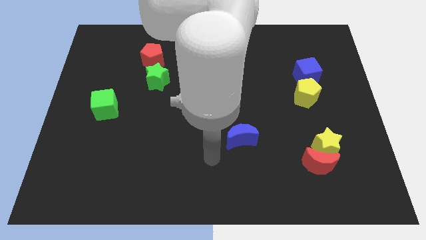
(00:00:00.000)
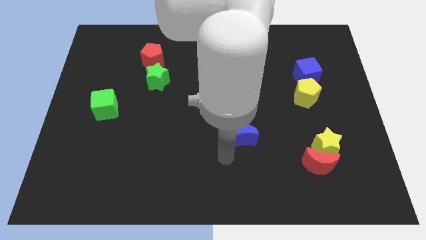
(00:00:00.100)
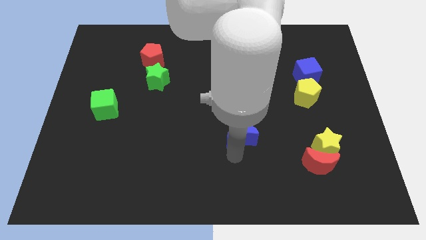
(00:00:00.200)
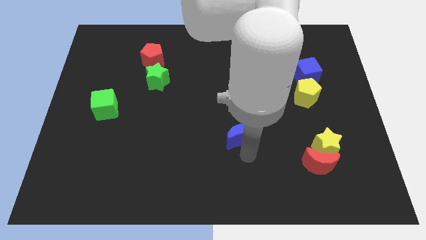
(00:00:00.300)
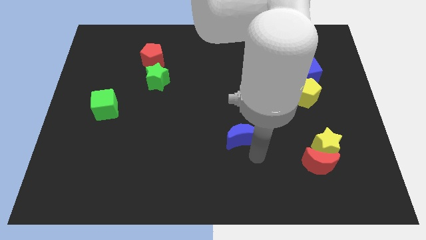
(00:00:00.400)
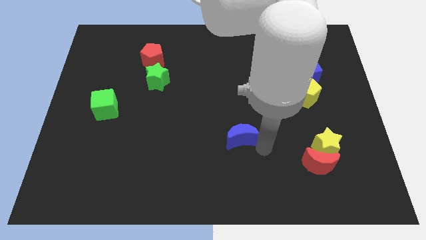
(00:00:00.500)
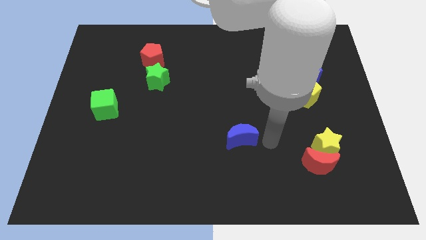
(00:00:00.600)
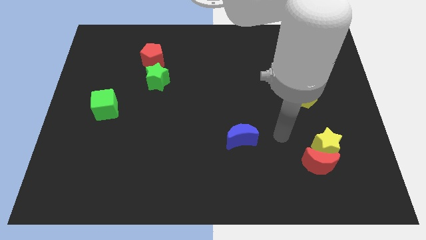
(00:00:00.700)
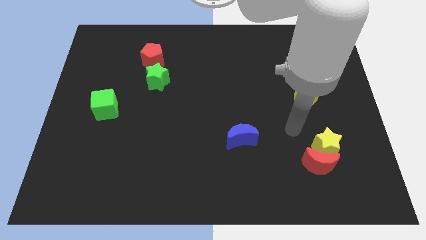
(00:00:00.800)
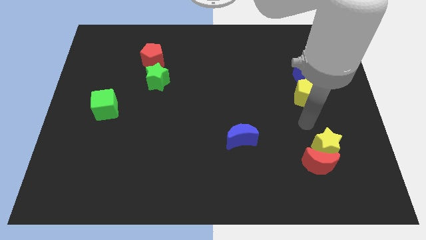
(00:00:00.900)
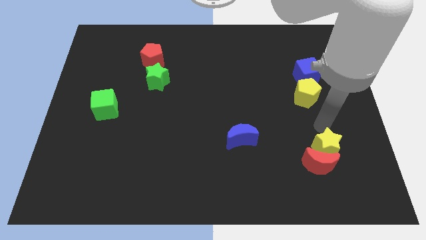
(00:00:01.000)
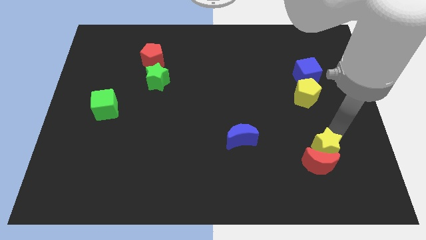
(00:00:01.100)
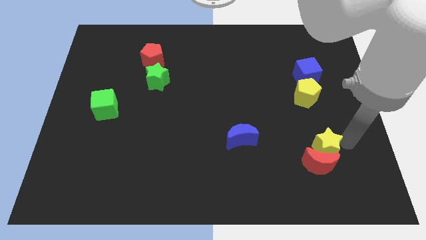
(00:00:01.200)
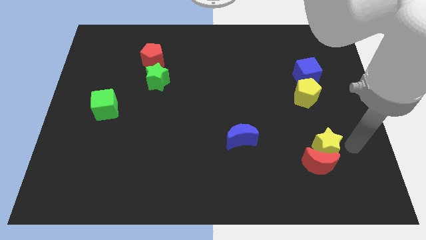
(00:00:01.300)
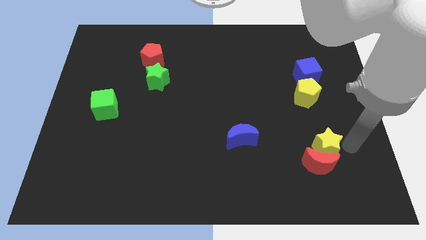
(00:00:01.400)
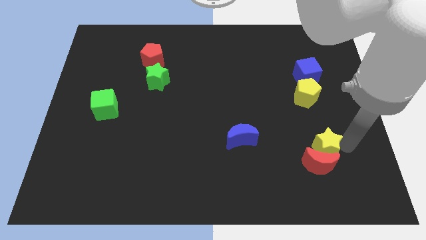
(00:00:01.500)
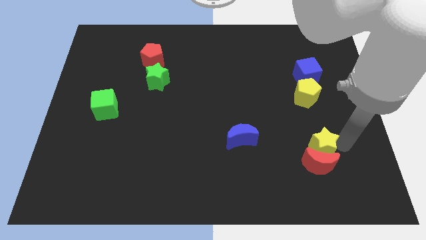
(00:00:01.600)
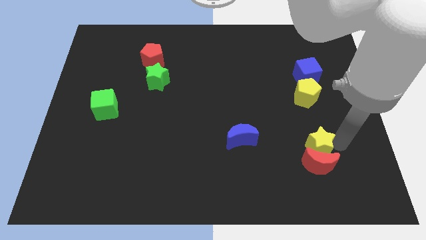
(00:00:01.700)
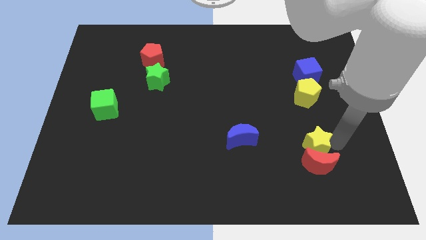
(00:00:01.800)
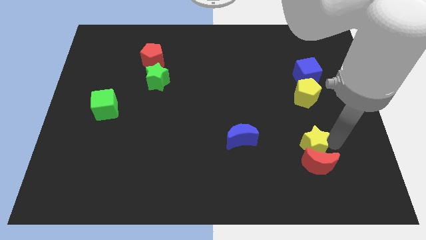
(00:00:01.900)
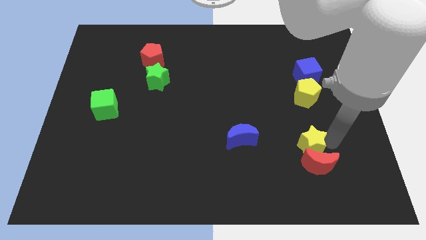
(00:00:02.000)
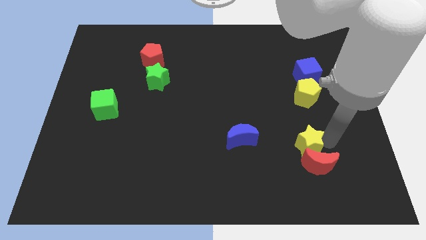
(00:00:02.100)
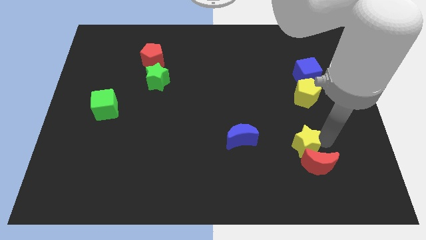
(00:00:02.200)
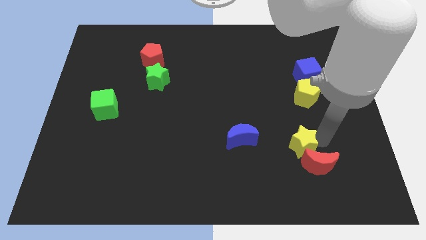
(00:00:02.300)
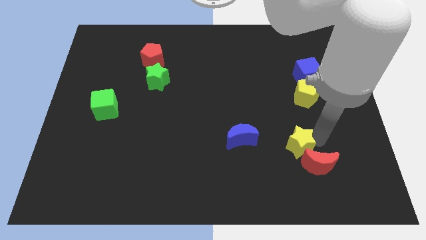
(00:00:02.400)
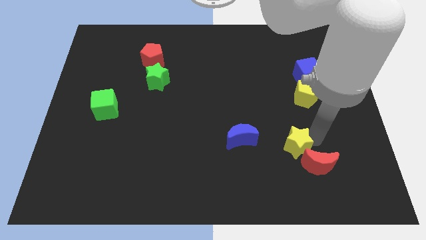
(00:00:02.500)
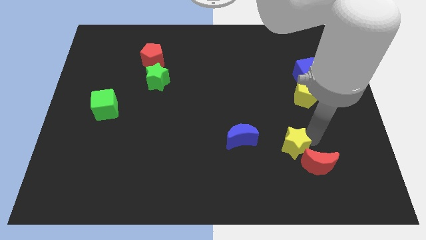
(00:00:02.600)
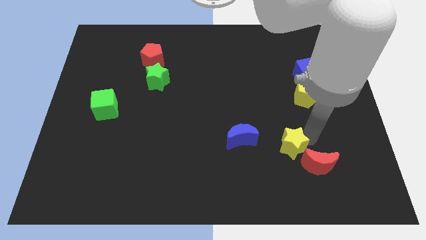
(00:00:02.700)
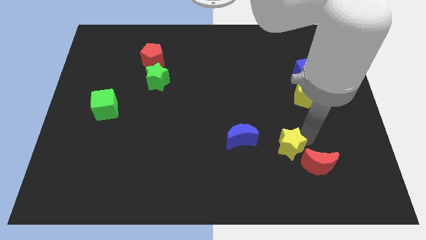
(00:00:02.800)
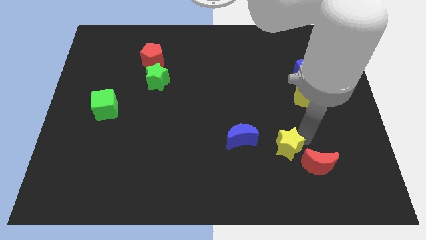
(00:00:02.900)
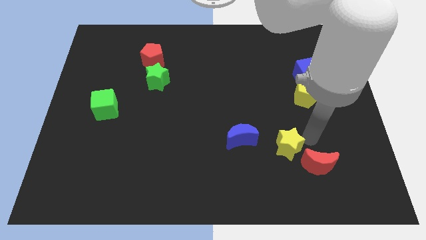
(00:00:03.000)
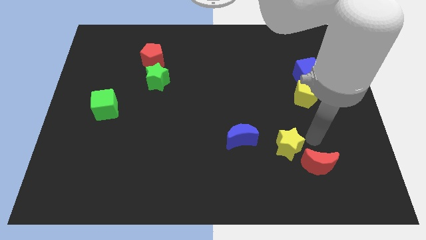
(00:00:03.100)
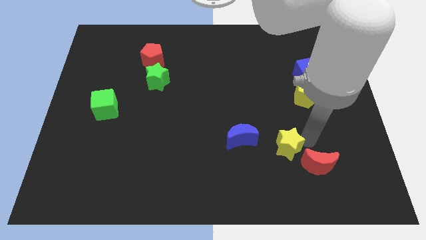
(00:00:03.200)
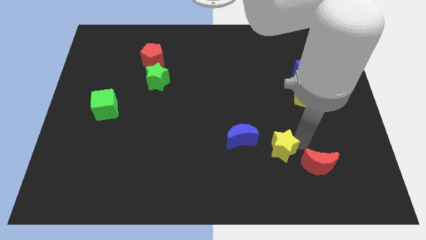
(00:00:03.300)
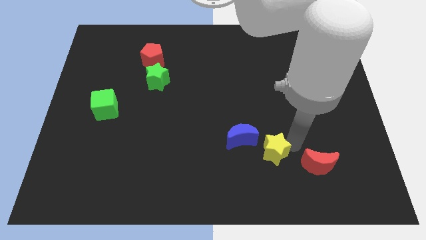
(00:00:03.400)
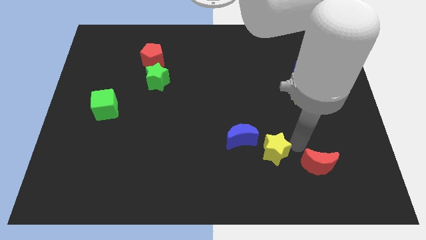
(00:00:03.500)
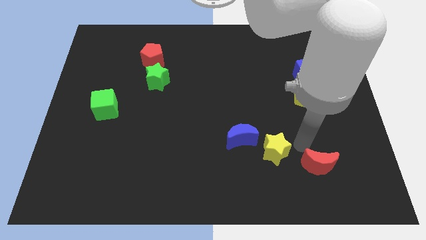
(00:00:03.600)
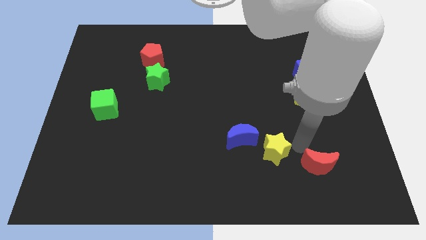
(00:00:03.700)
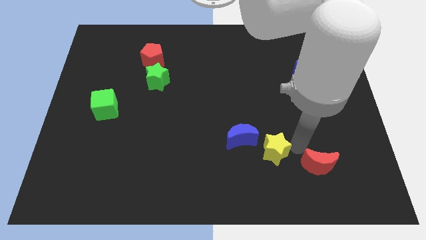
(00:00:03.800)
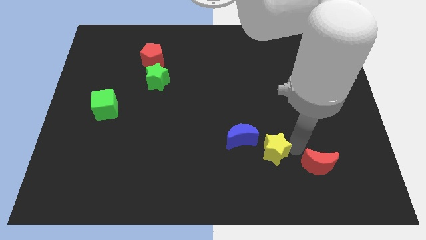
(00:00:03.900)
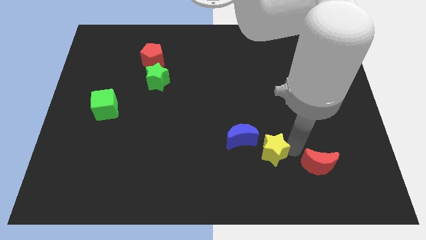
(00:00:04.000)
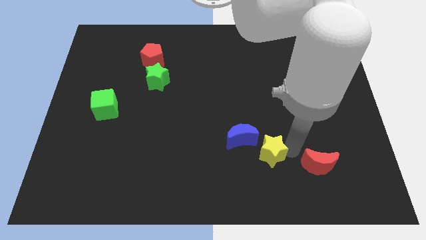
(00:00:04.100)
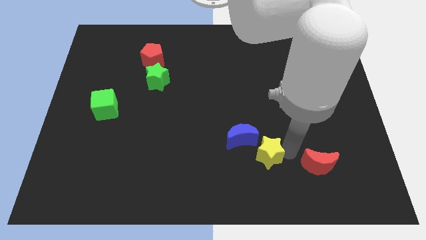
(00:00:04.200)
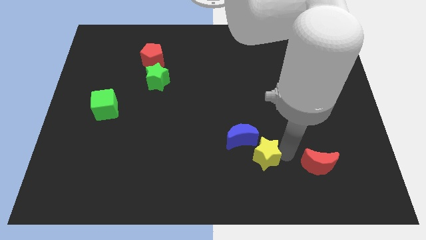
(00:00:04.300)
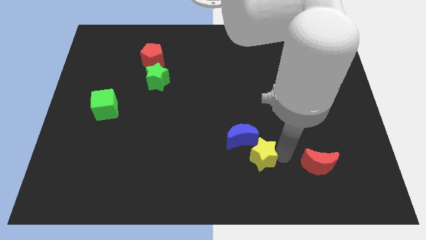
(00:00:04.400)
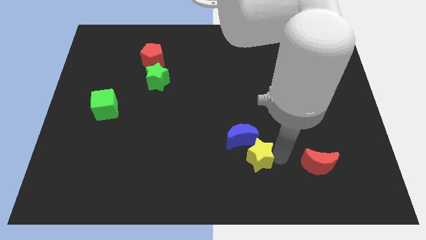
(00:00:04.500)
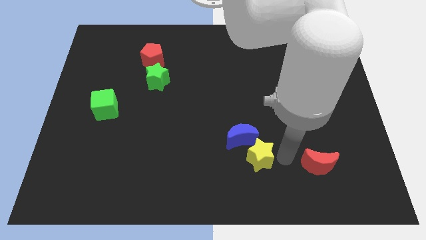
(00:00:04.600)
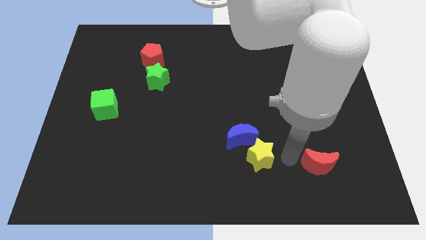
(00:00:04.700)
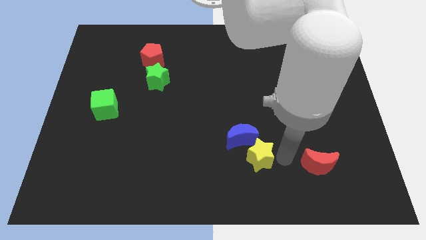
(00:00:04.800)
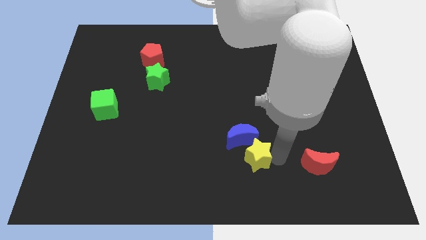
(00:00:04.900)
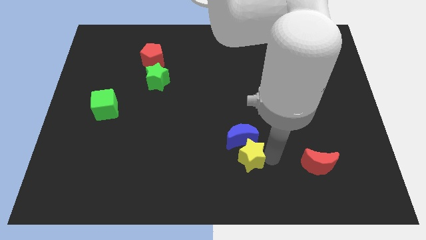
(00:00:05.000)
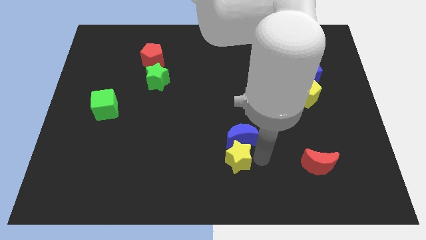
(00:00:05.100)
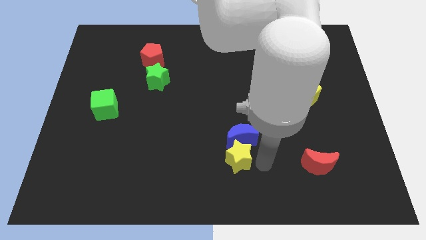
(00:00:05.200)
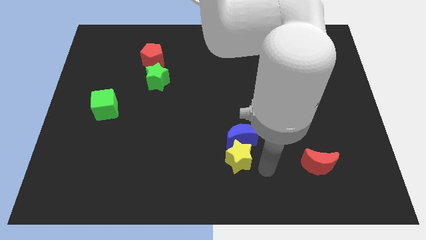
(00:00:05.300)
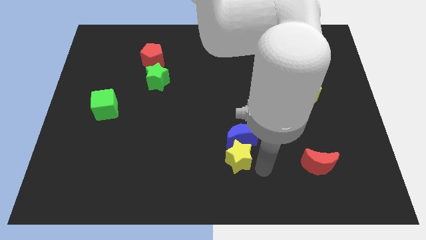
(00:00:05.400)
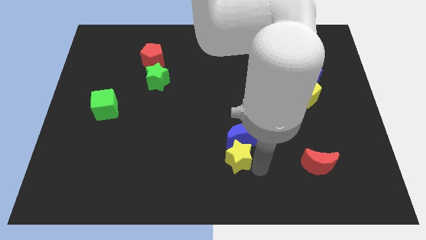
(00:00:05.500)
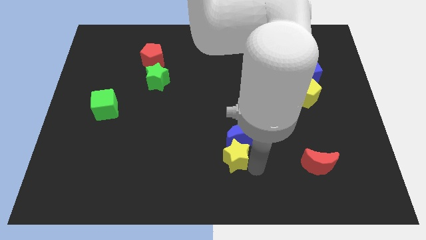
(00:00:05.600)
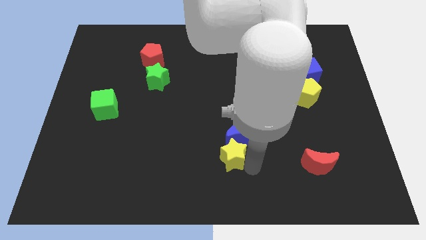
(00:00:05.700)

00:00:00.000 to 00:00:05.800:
push the yellow star left

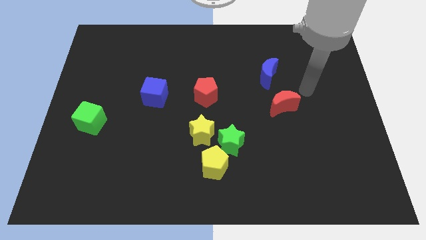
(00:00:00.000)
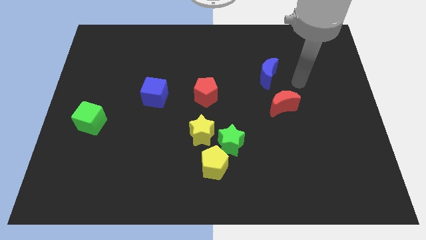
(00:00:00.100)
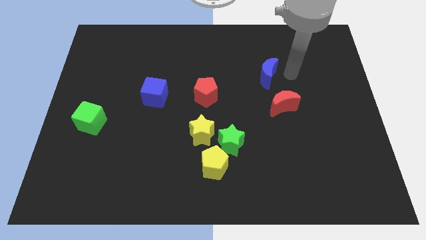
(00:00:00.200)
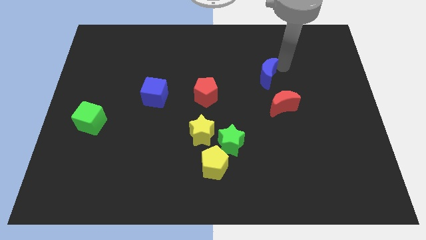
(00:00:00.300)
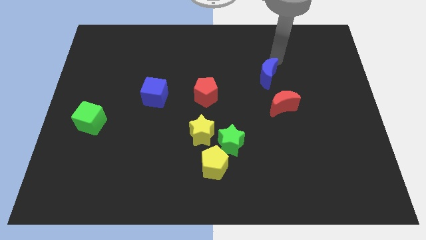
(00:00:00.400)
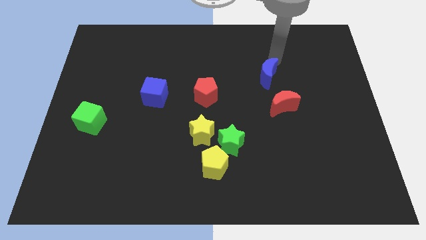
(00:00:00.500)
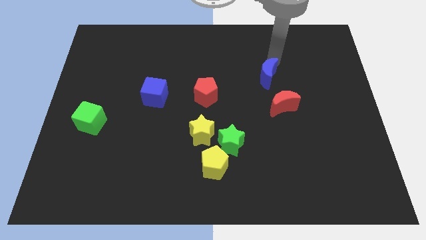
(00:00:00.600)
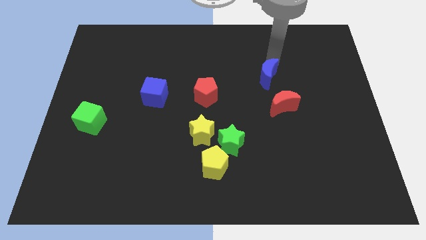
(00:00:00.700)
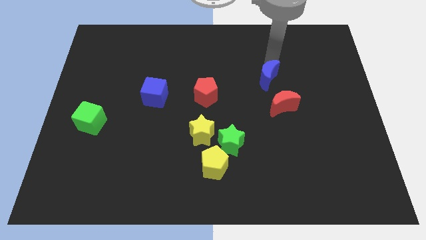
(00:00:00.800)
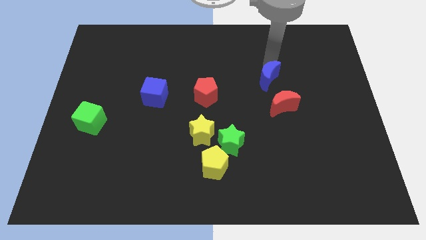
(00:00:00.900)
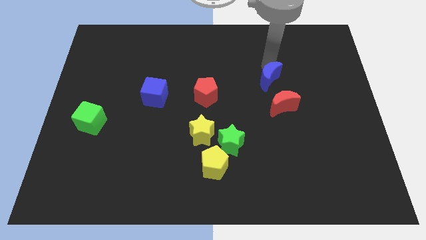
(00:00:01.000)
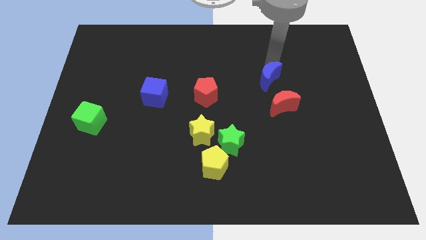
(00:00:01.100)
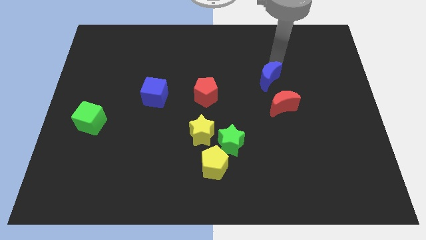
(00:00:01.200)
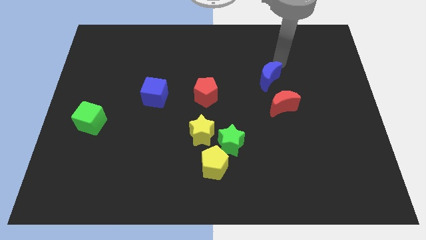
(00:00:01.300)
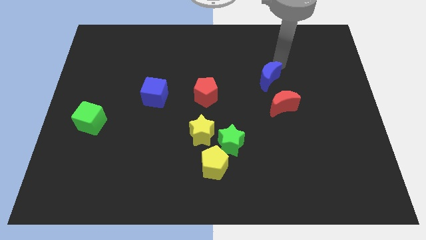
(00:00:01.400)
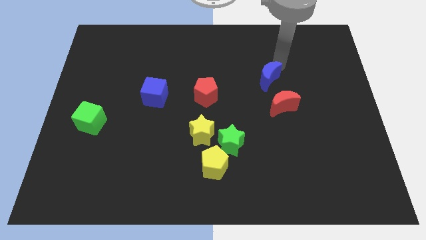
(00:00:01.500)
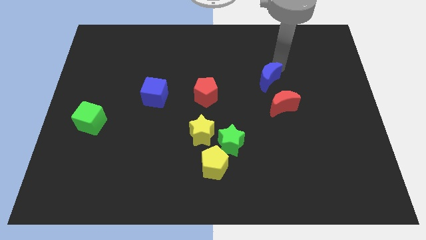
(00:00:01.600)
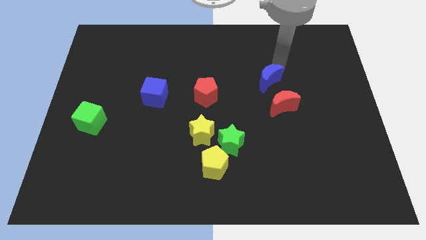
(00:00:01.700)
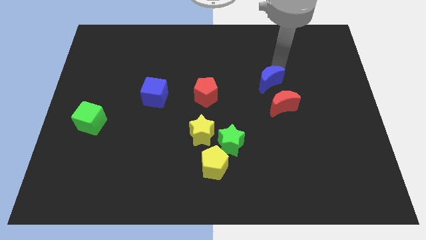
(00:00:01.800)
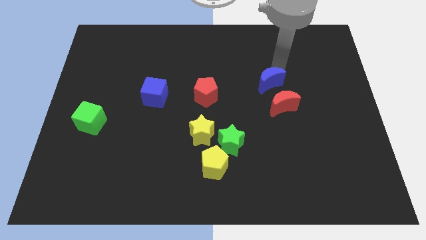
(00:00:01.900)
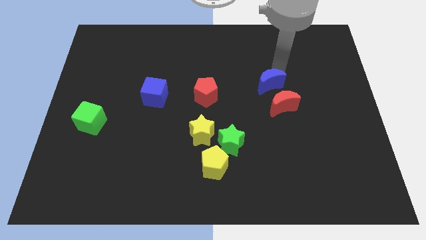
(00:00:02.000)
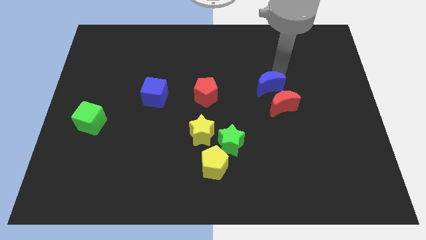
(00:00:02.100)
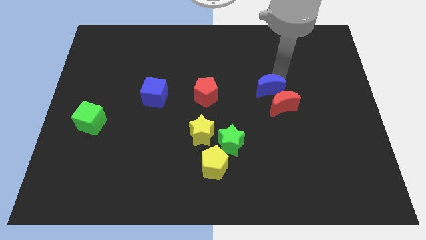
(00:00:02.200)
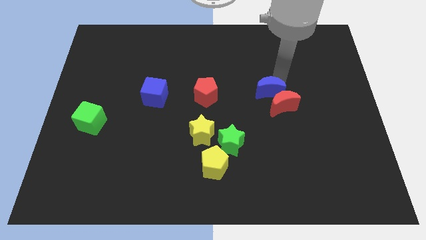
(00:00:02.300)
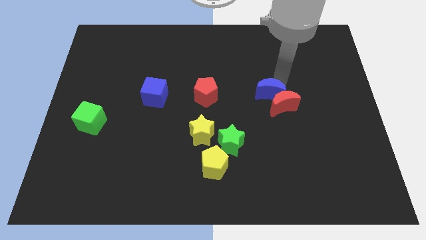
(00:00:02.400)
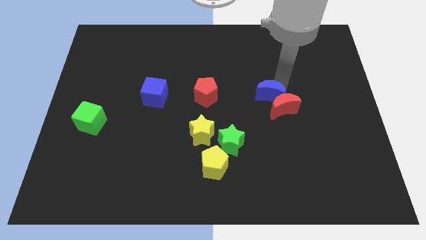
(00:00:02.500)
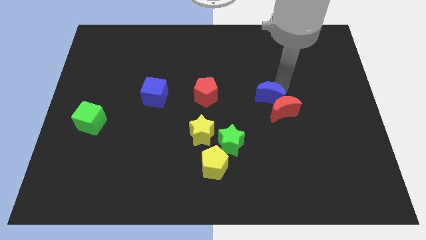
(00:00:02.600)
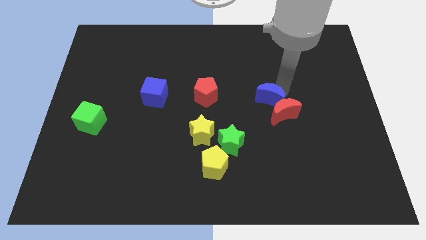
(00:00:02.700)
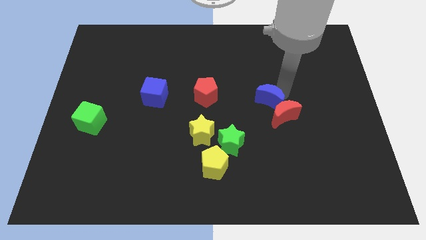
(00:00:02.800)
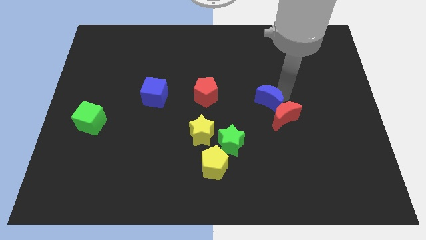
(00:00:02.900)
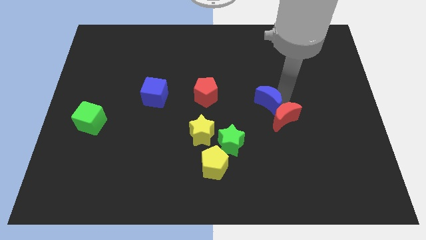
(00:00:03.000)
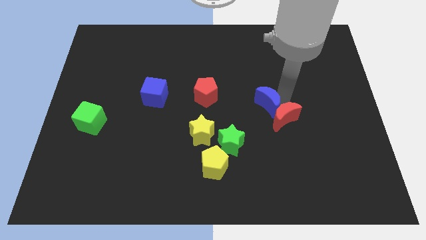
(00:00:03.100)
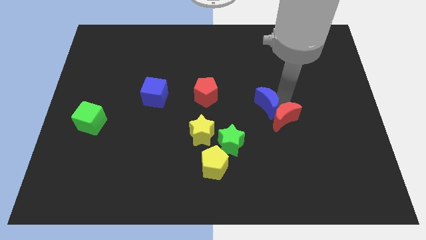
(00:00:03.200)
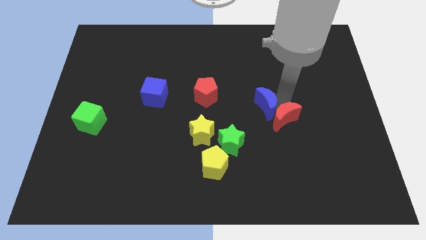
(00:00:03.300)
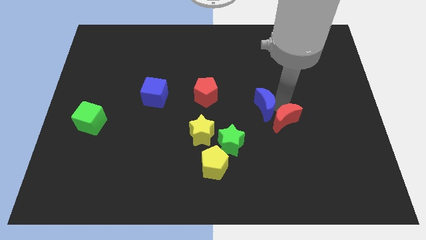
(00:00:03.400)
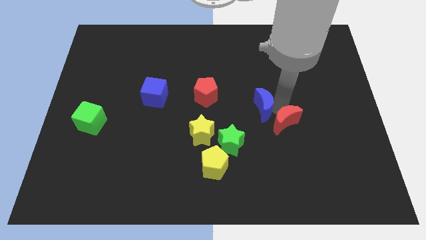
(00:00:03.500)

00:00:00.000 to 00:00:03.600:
move the blue moon a bit downwards and then left
